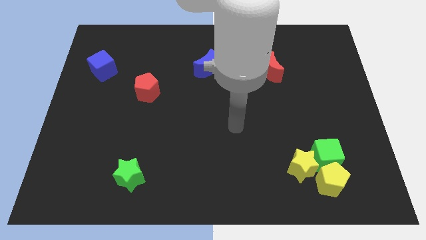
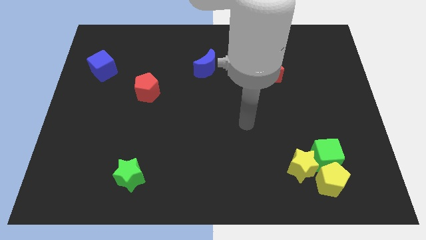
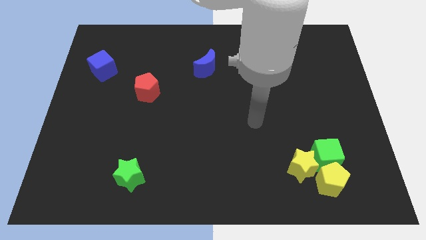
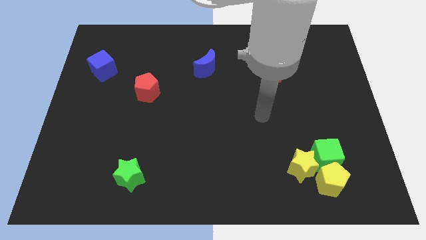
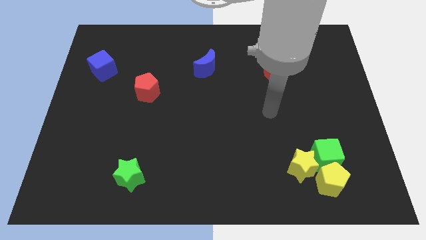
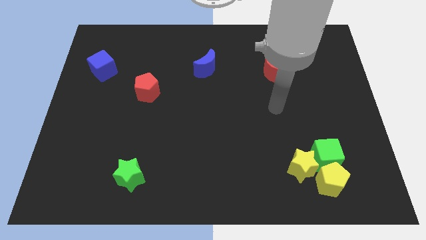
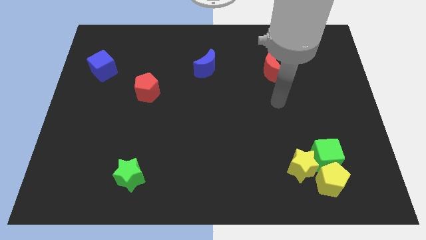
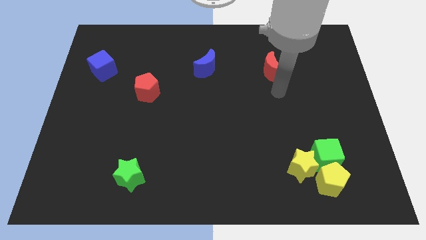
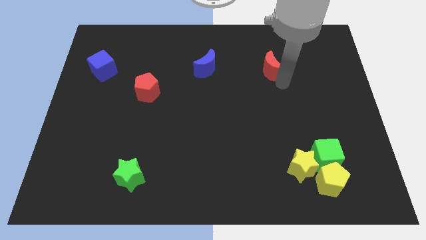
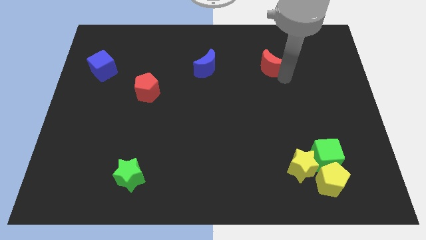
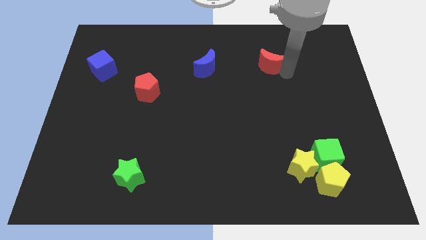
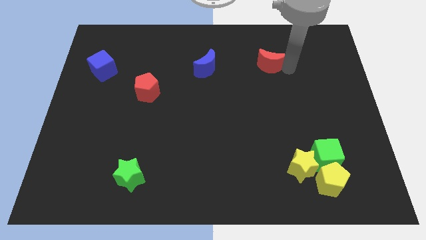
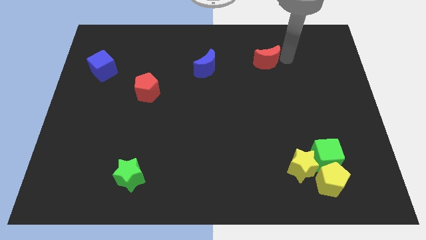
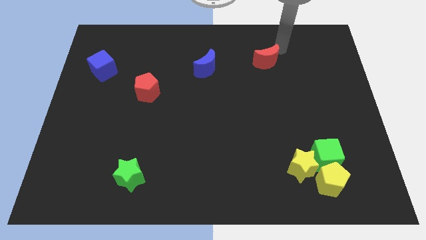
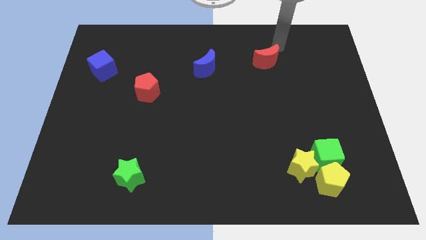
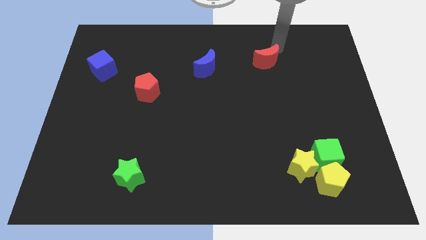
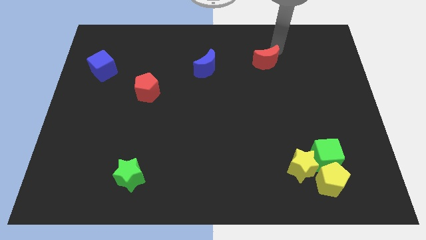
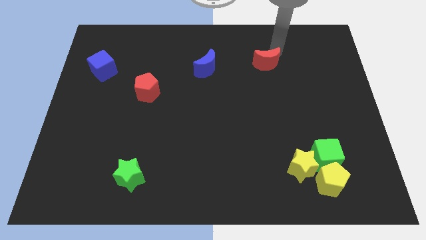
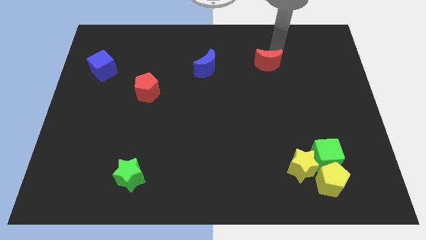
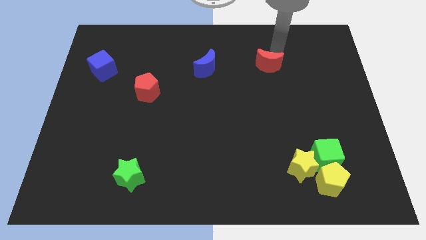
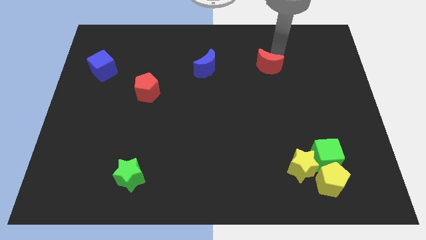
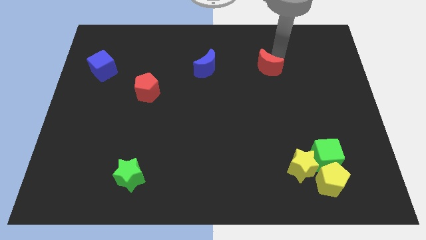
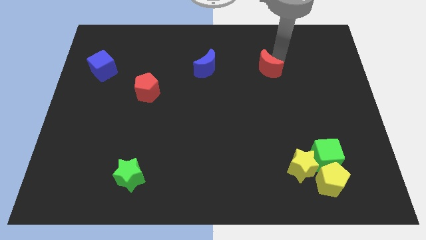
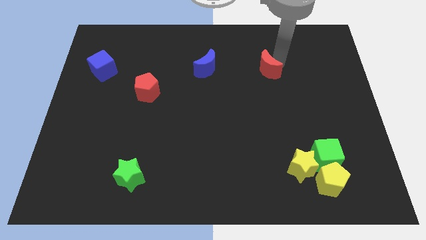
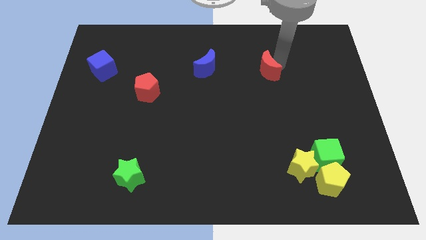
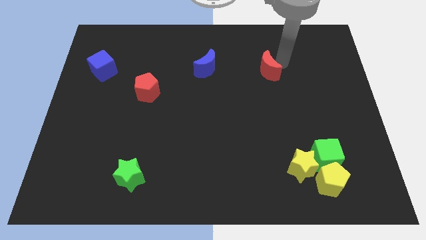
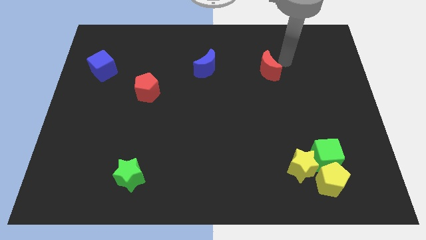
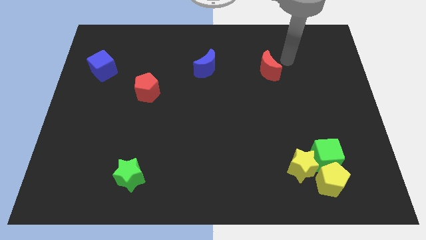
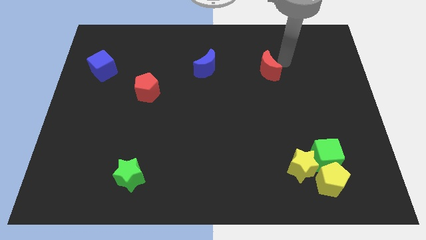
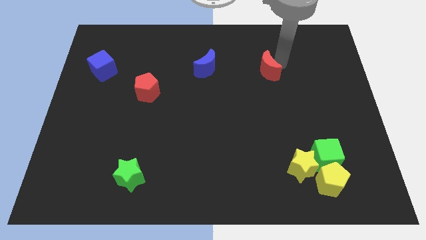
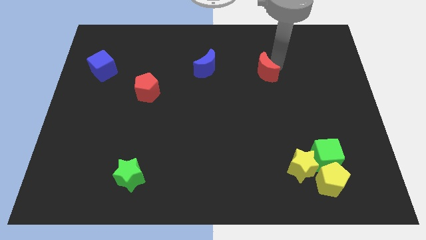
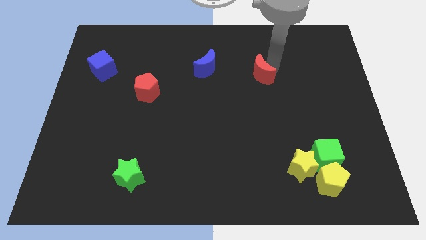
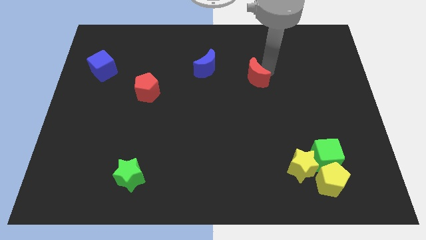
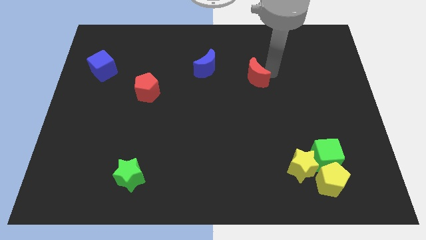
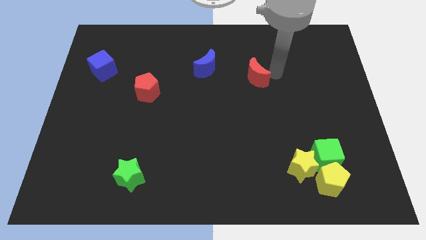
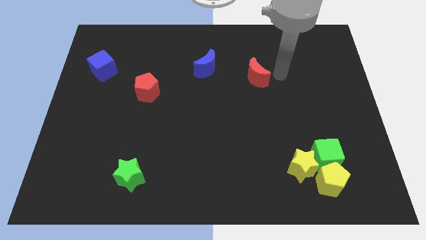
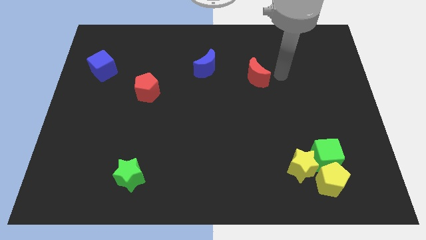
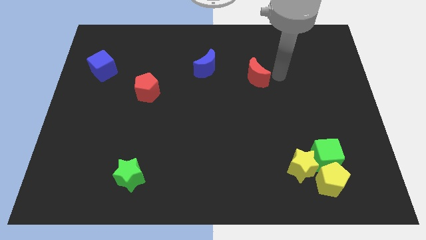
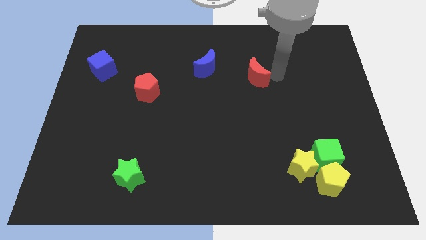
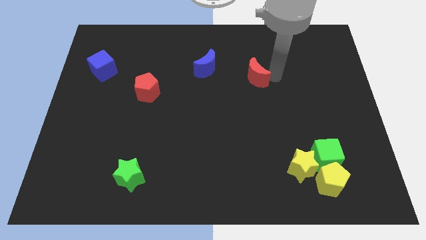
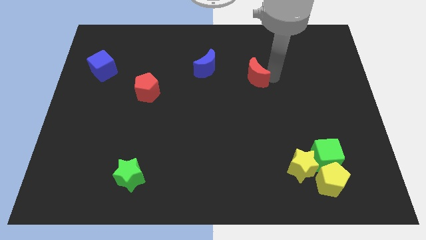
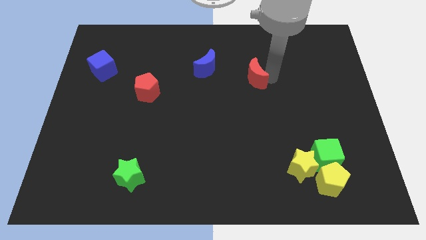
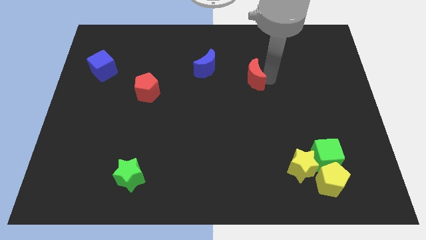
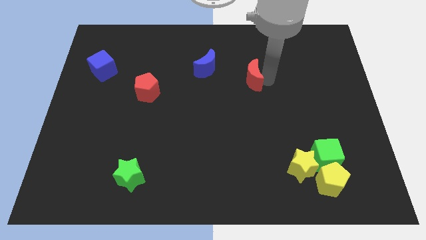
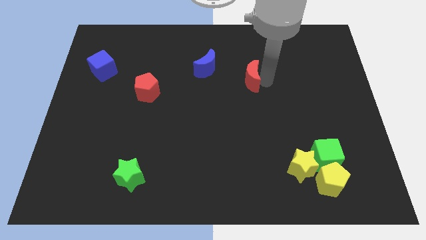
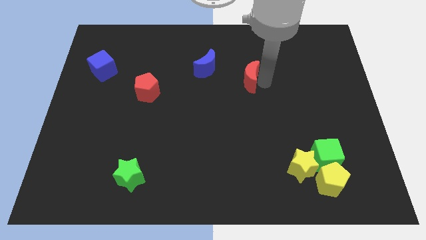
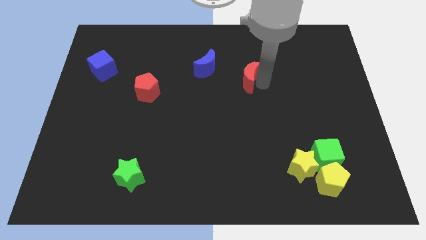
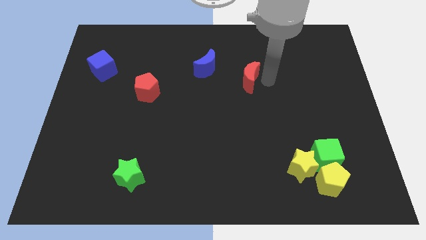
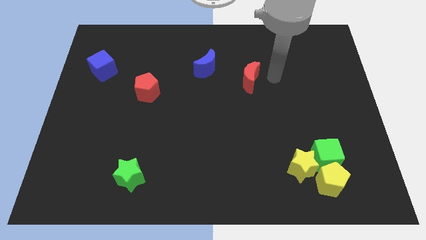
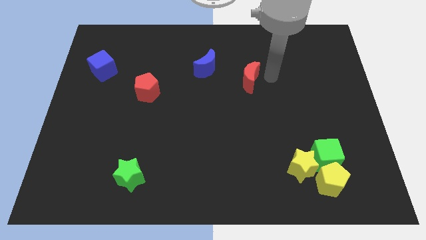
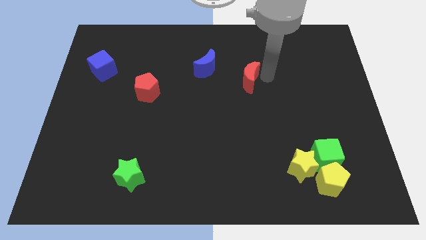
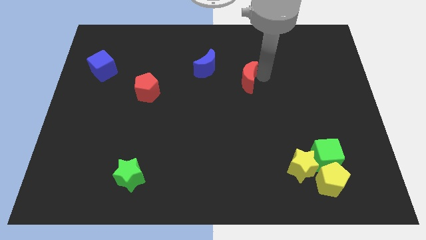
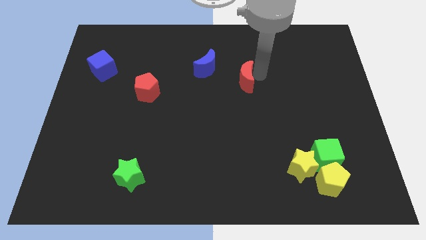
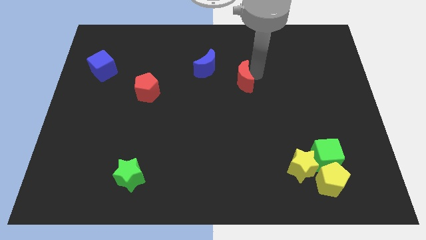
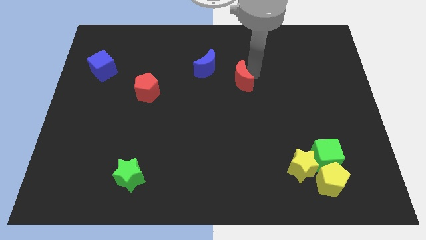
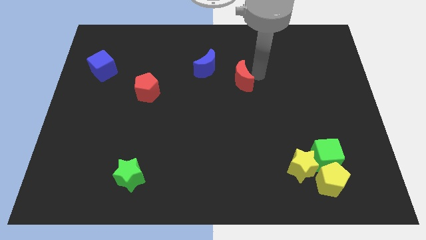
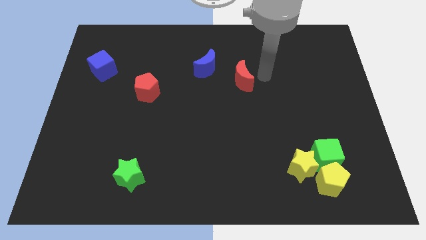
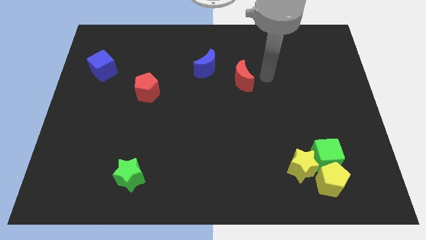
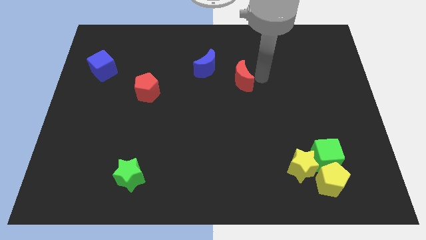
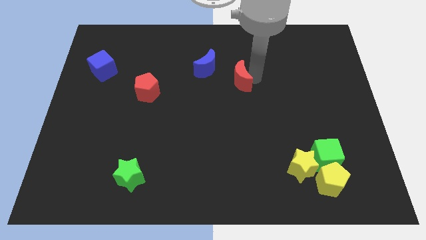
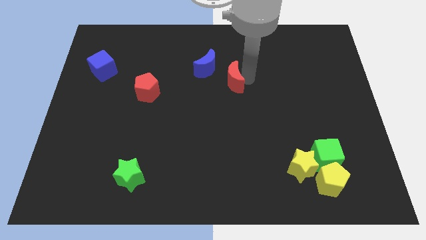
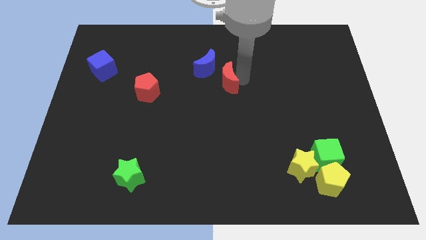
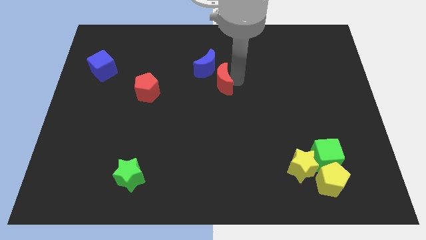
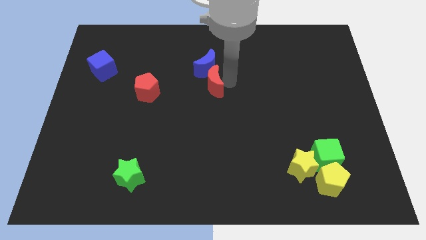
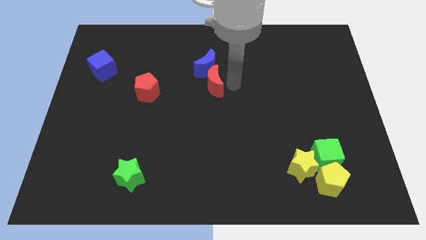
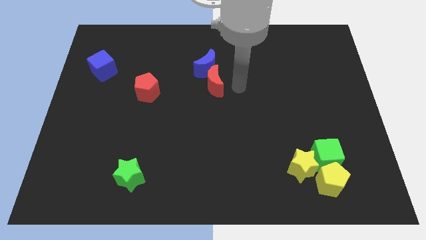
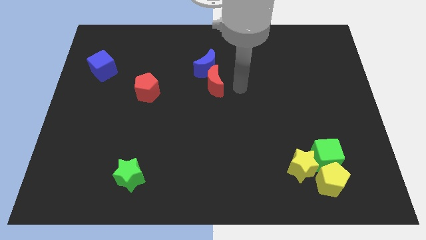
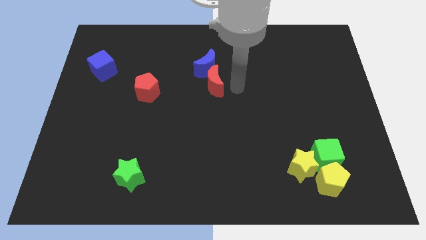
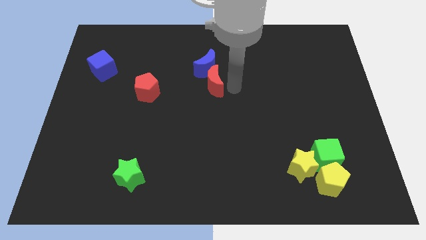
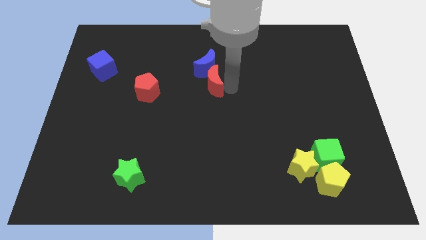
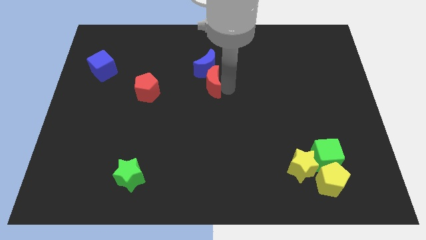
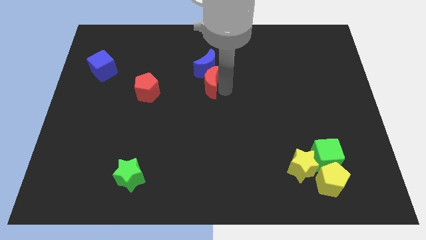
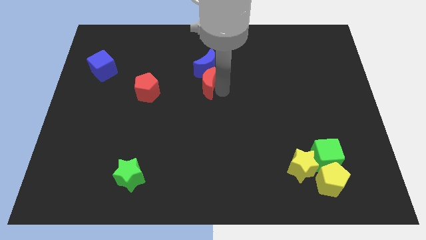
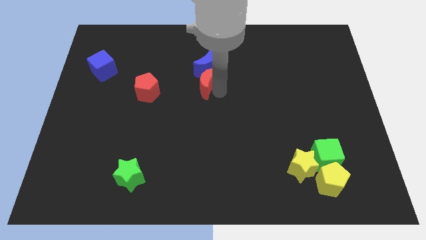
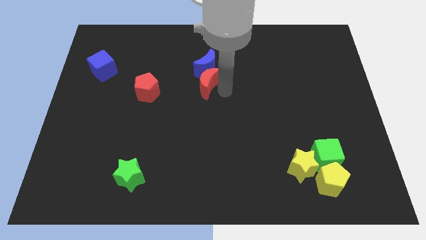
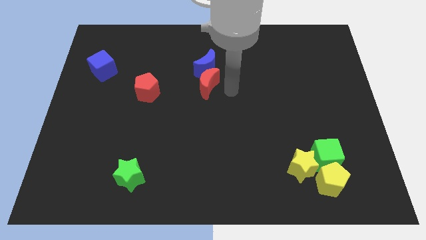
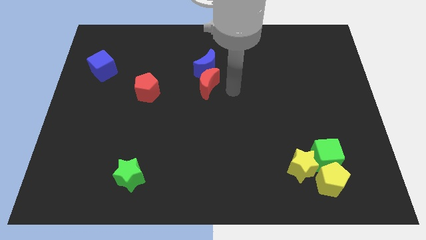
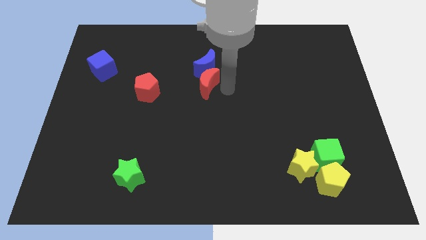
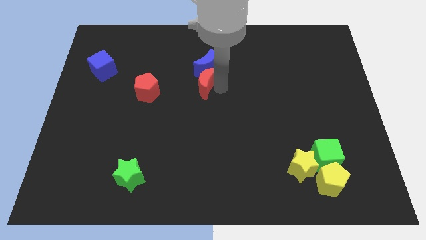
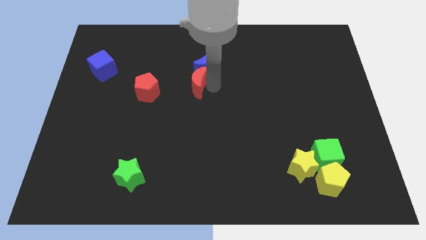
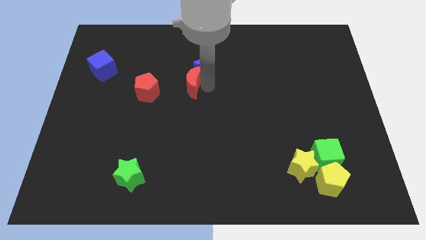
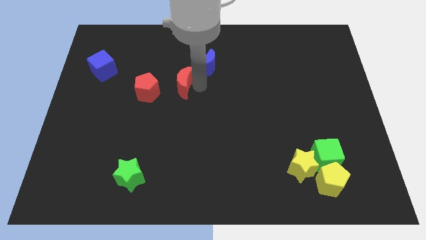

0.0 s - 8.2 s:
slide the red moon left
